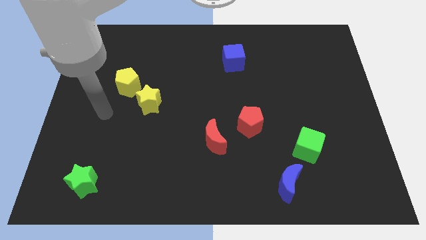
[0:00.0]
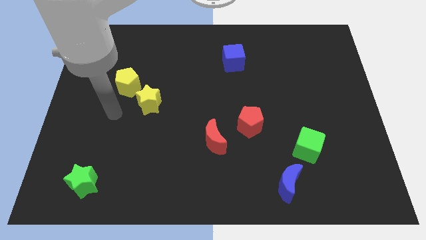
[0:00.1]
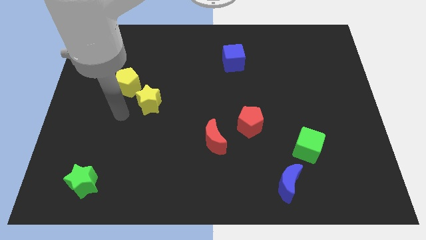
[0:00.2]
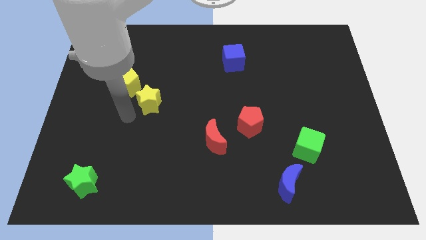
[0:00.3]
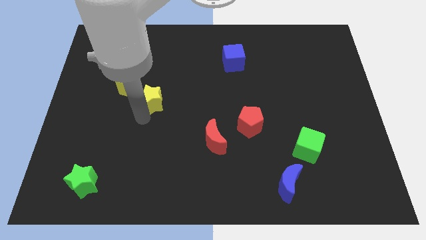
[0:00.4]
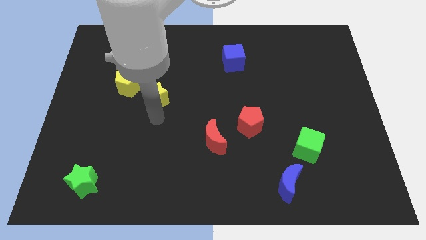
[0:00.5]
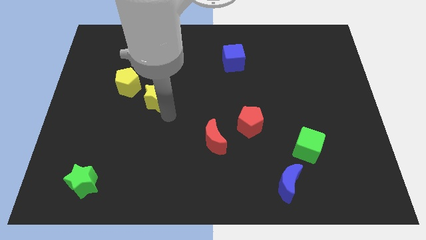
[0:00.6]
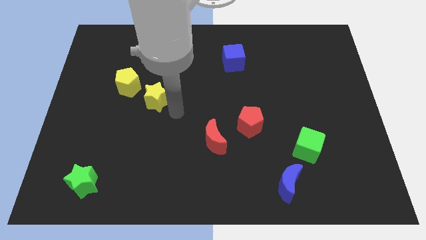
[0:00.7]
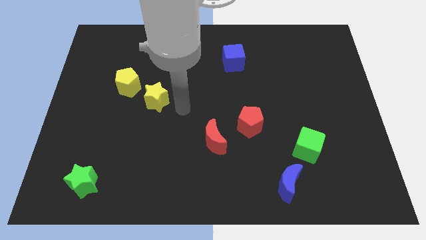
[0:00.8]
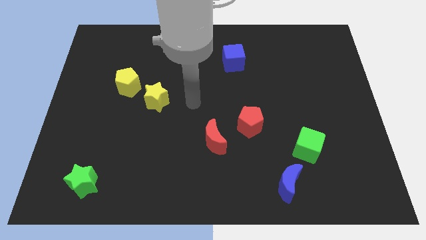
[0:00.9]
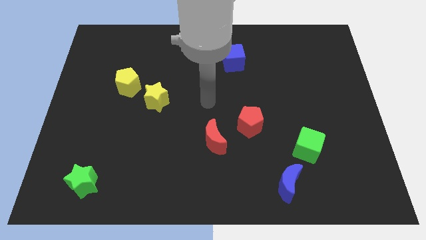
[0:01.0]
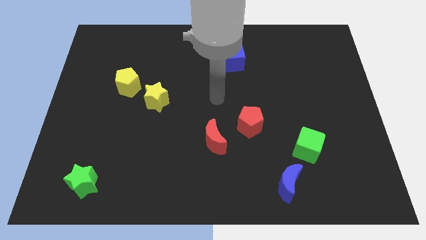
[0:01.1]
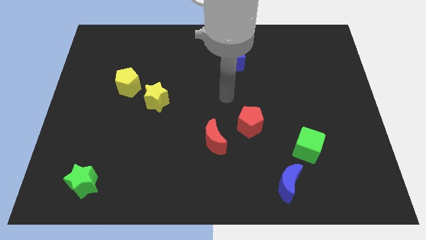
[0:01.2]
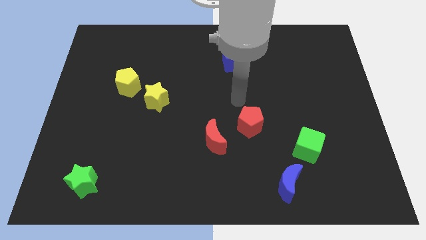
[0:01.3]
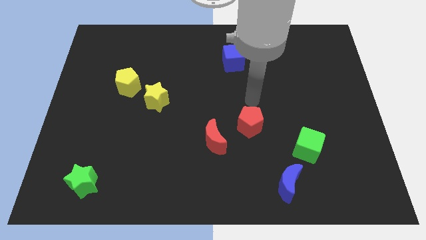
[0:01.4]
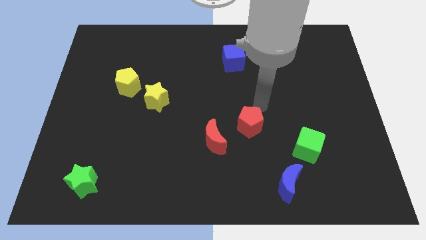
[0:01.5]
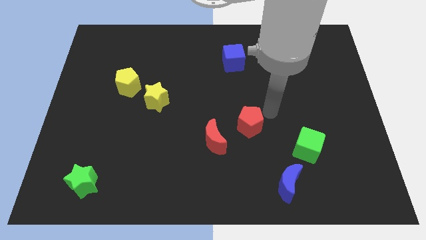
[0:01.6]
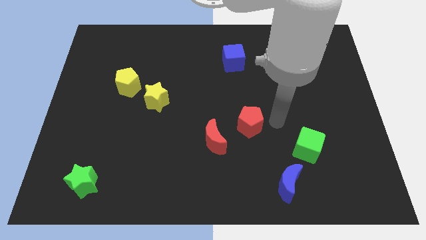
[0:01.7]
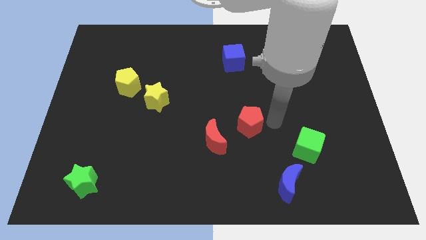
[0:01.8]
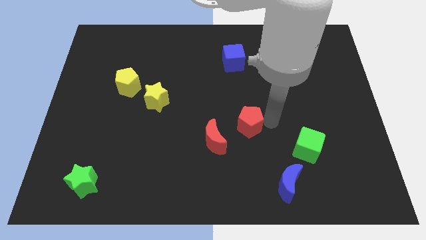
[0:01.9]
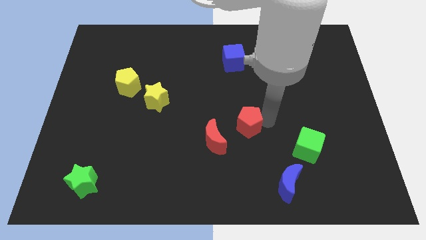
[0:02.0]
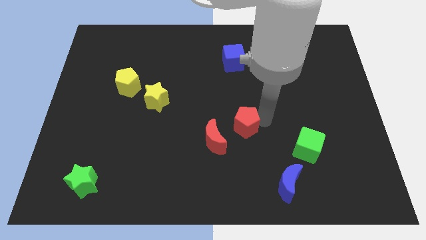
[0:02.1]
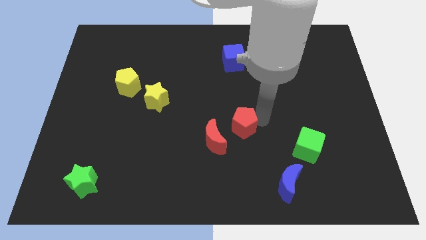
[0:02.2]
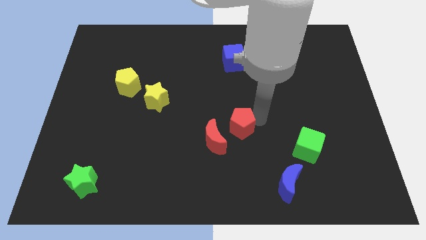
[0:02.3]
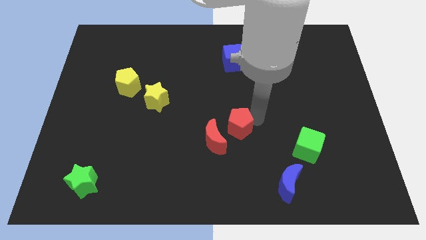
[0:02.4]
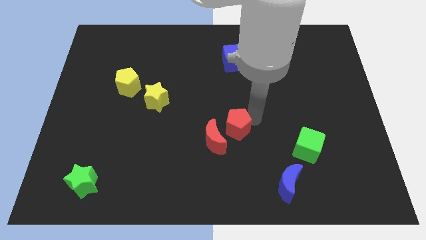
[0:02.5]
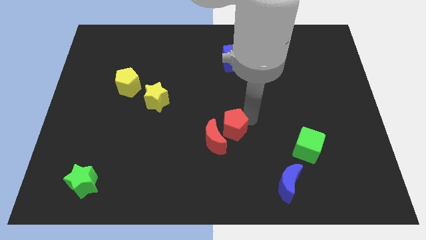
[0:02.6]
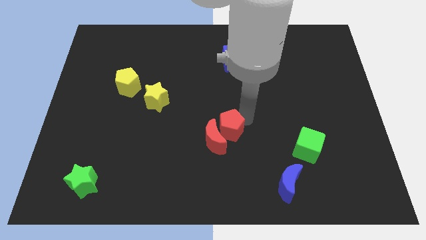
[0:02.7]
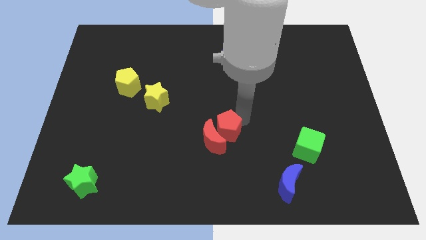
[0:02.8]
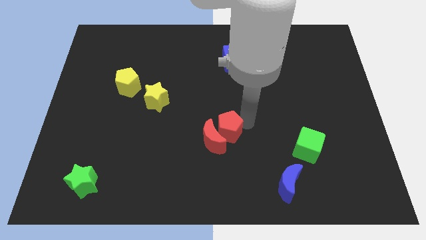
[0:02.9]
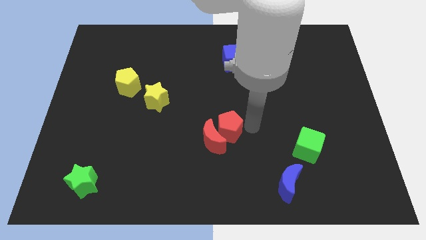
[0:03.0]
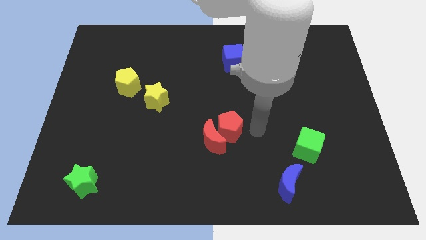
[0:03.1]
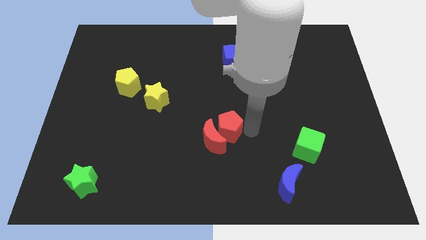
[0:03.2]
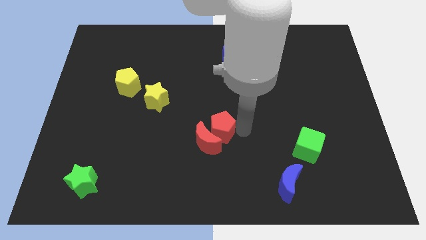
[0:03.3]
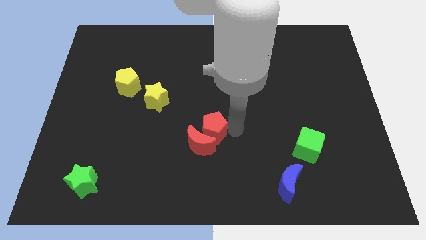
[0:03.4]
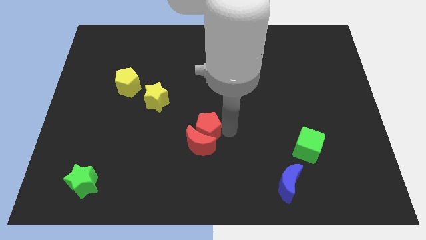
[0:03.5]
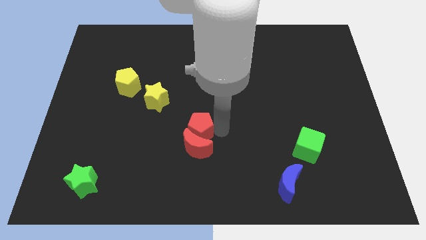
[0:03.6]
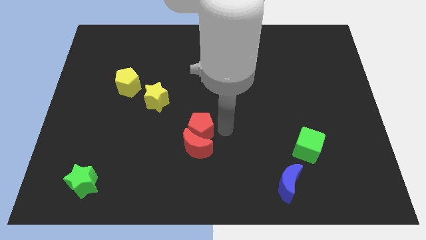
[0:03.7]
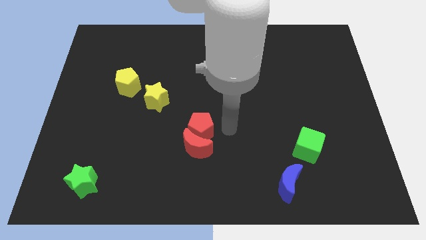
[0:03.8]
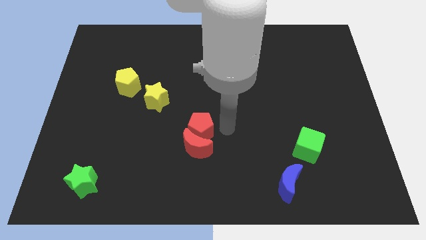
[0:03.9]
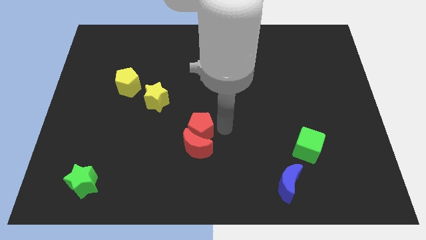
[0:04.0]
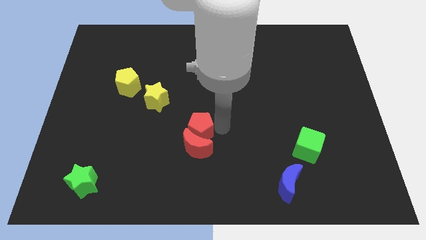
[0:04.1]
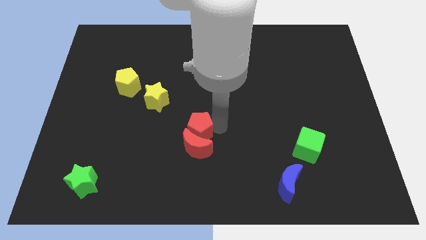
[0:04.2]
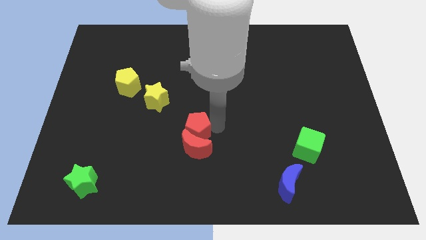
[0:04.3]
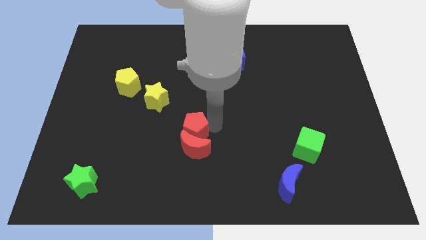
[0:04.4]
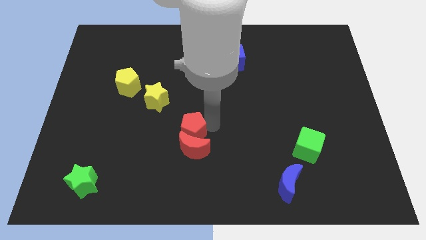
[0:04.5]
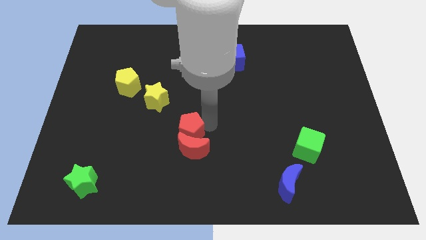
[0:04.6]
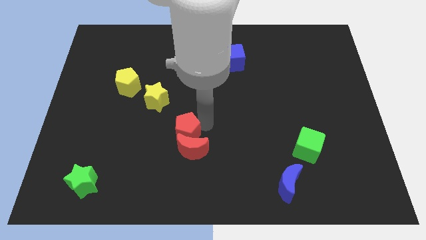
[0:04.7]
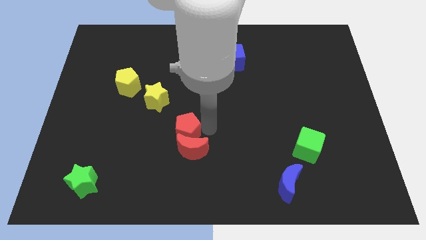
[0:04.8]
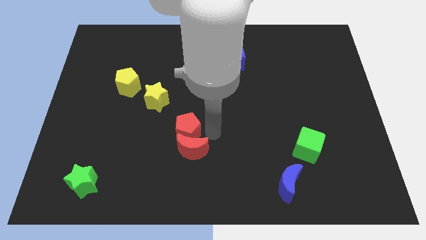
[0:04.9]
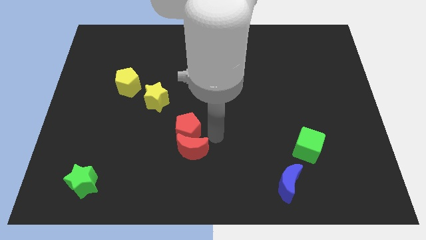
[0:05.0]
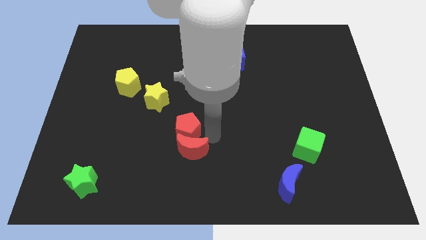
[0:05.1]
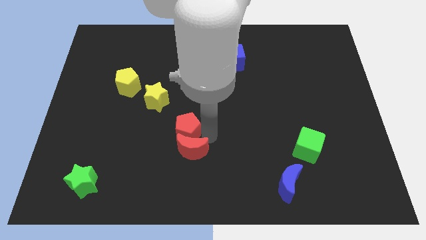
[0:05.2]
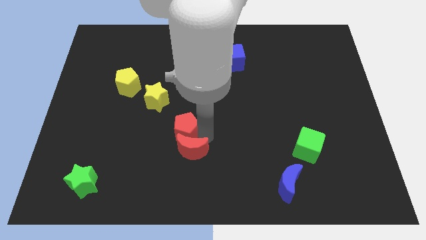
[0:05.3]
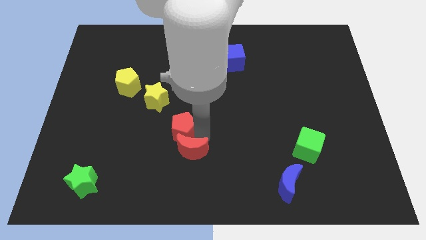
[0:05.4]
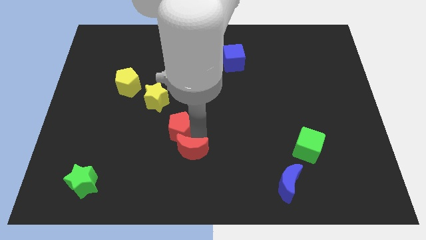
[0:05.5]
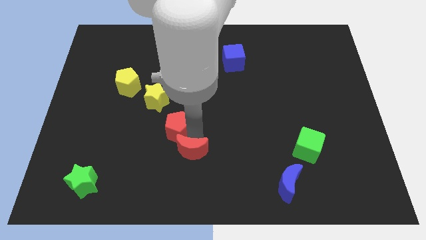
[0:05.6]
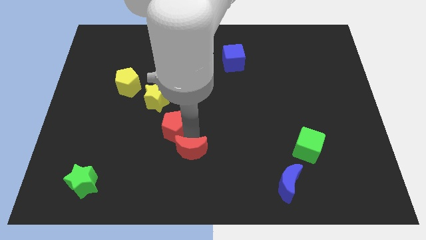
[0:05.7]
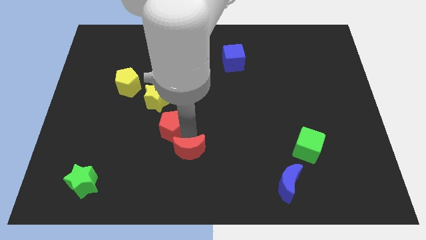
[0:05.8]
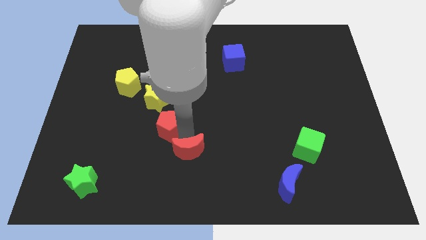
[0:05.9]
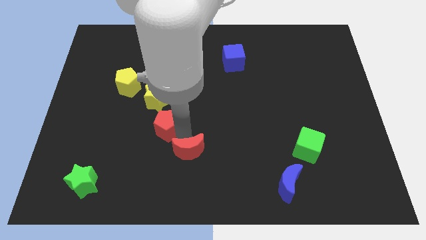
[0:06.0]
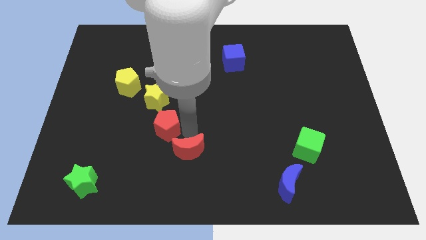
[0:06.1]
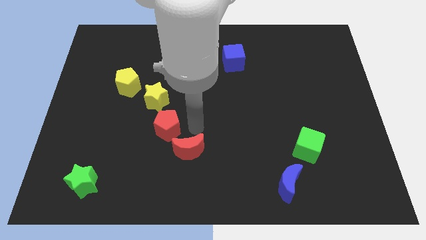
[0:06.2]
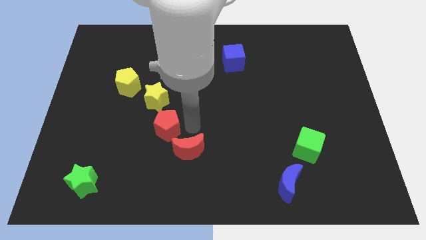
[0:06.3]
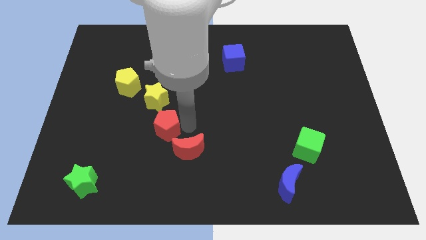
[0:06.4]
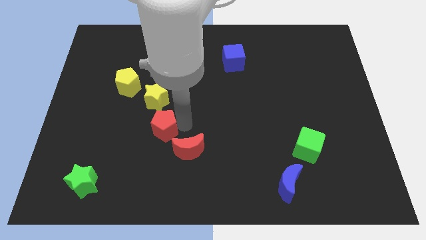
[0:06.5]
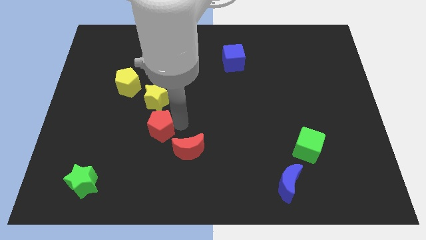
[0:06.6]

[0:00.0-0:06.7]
move the red pentagon left

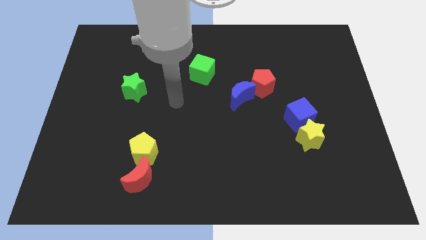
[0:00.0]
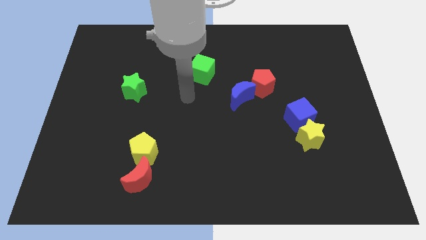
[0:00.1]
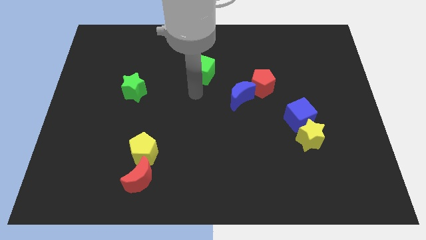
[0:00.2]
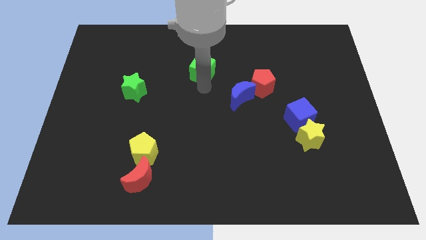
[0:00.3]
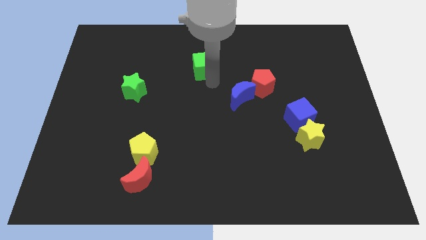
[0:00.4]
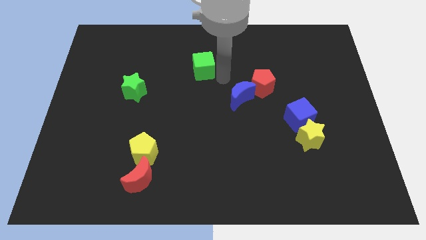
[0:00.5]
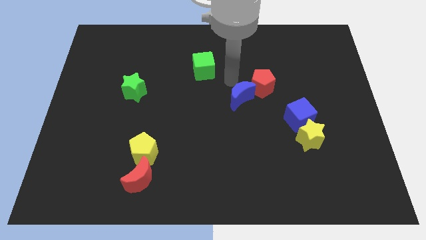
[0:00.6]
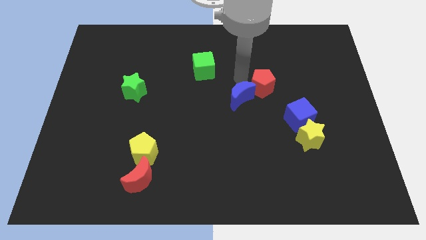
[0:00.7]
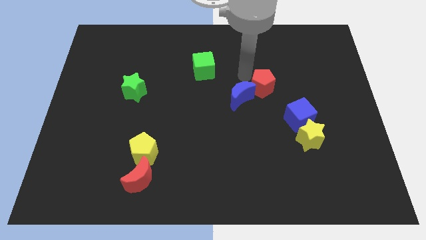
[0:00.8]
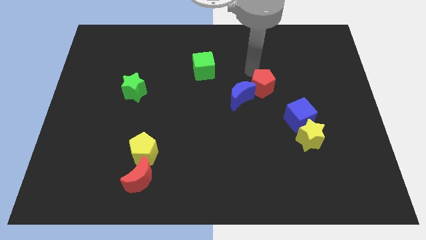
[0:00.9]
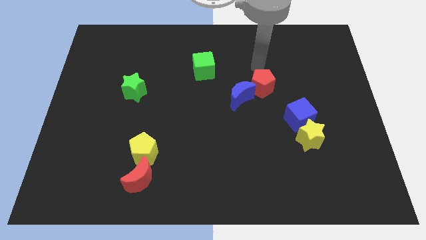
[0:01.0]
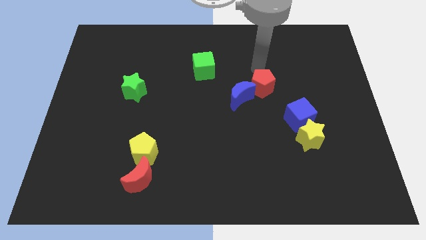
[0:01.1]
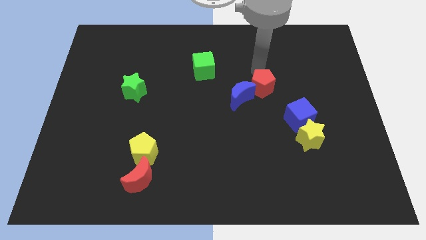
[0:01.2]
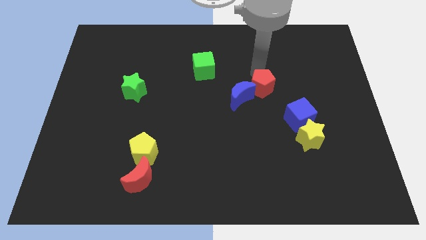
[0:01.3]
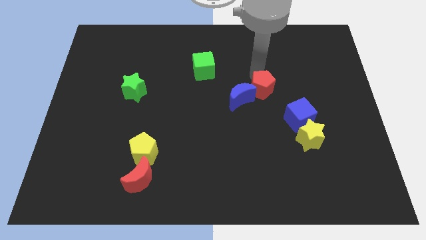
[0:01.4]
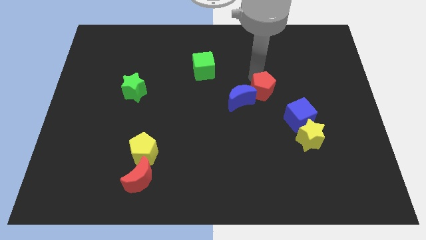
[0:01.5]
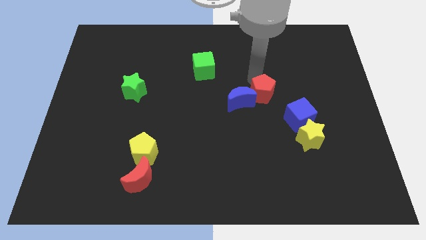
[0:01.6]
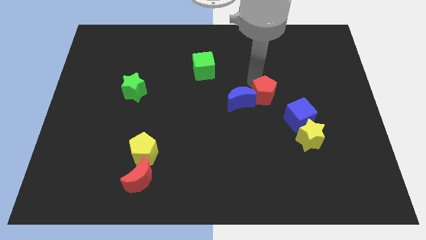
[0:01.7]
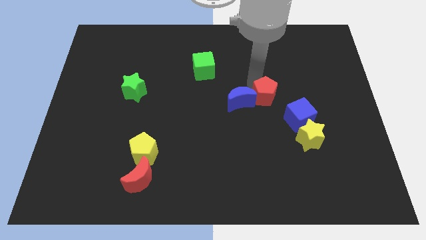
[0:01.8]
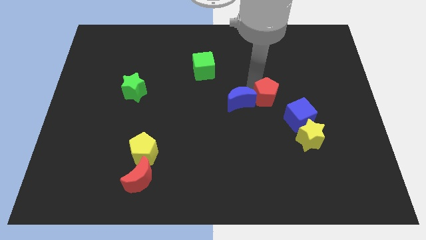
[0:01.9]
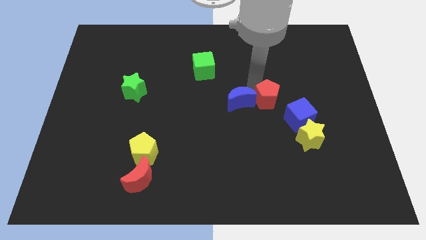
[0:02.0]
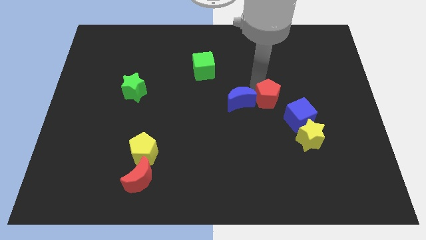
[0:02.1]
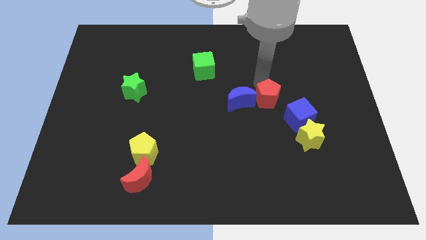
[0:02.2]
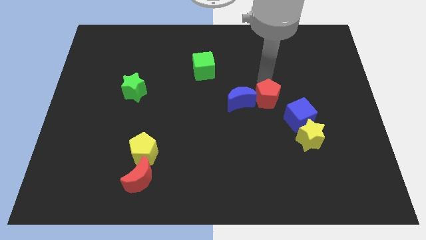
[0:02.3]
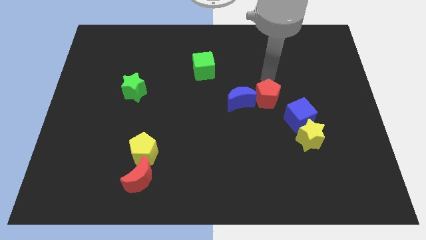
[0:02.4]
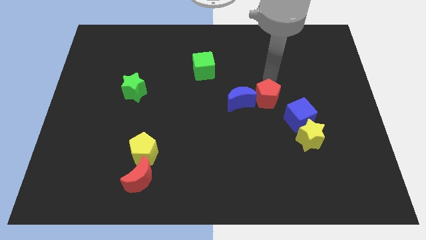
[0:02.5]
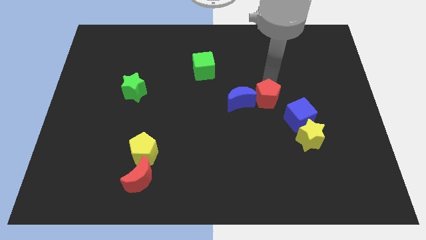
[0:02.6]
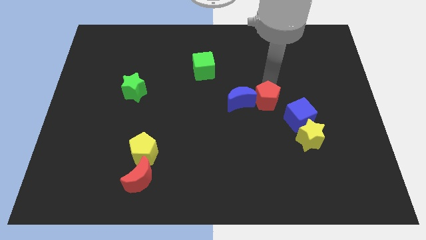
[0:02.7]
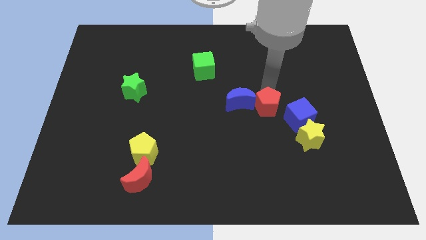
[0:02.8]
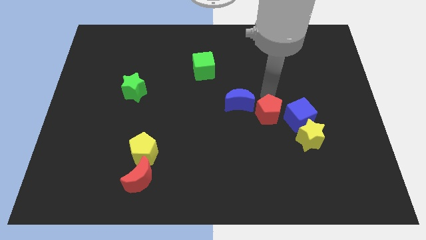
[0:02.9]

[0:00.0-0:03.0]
slightly slide the red pentagon downwards
